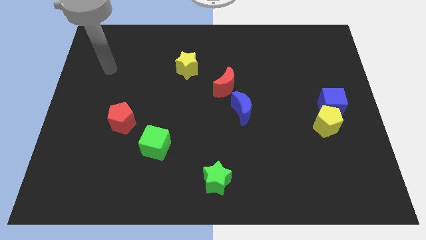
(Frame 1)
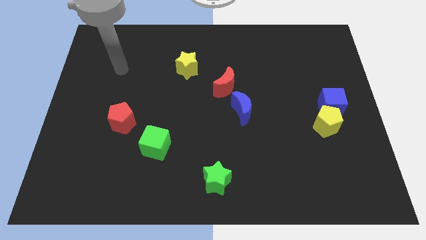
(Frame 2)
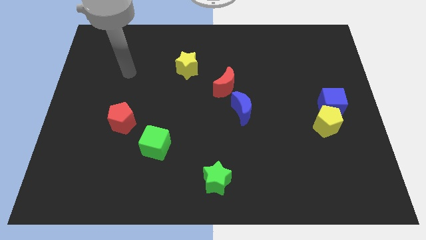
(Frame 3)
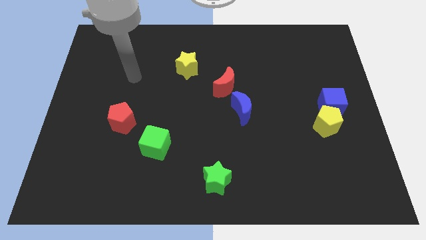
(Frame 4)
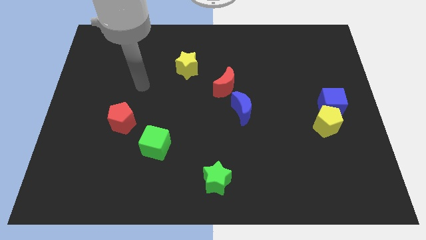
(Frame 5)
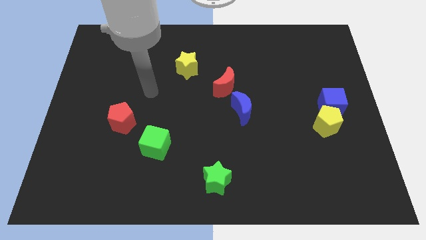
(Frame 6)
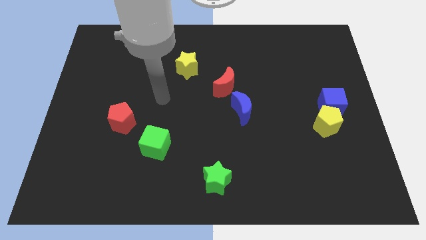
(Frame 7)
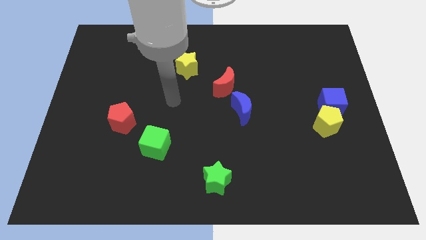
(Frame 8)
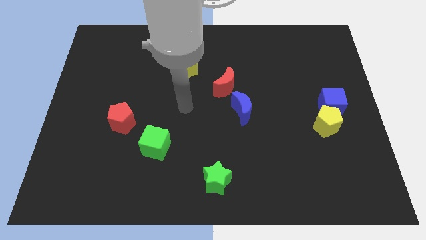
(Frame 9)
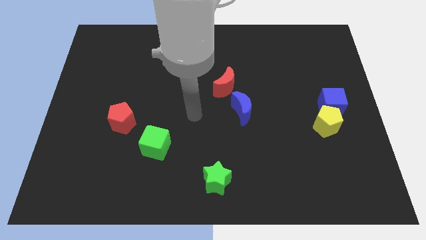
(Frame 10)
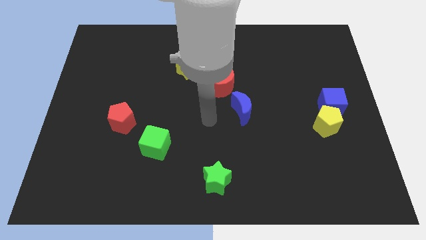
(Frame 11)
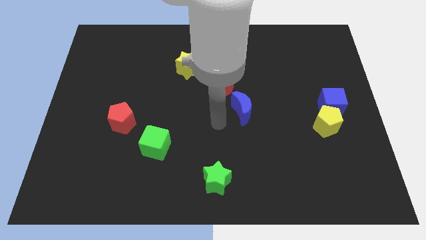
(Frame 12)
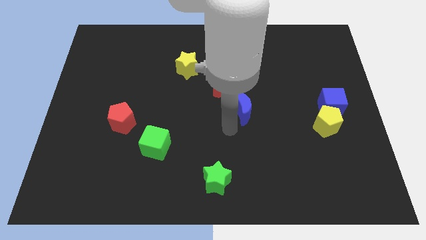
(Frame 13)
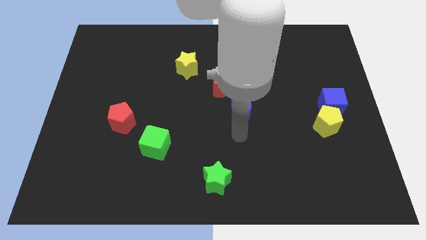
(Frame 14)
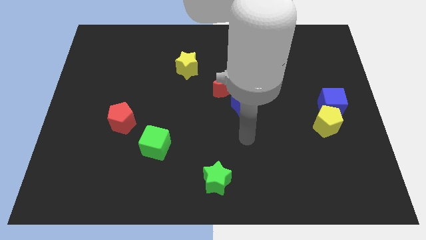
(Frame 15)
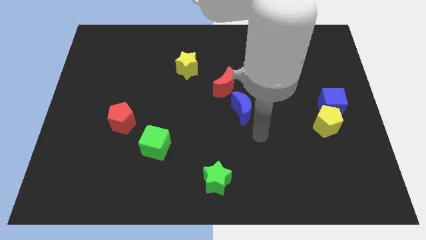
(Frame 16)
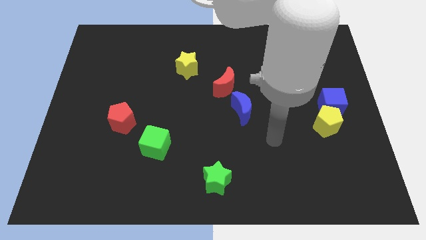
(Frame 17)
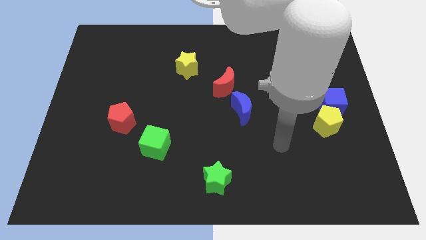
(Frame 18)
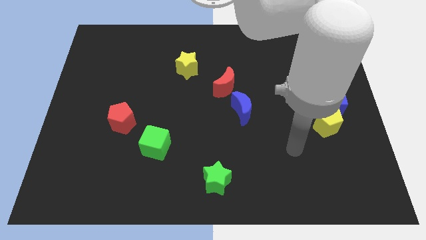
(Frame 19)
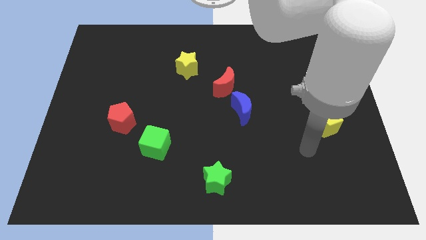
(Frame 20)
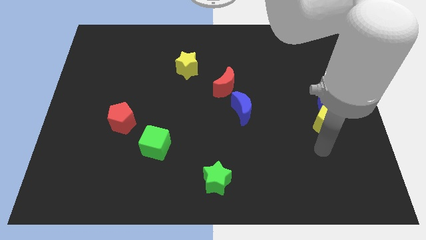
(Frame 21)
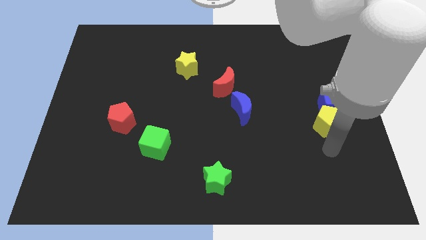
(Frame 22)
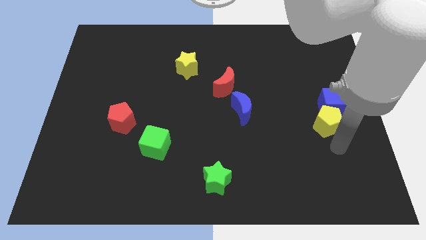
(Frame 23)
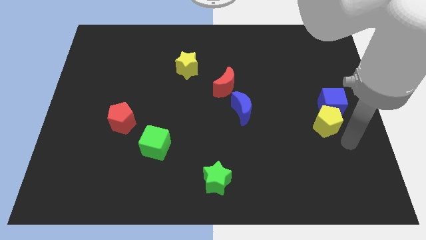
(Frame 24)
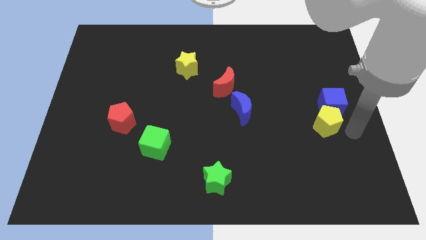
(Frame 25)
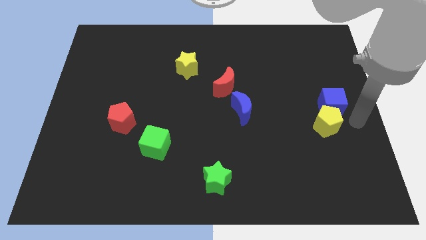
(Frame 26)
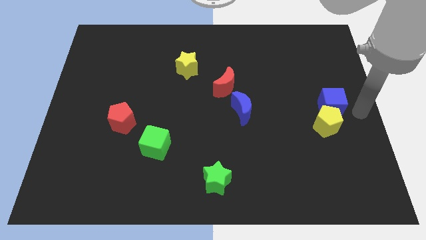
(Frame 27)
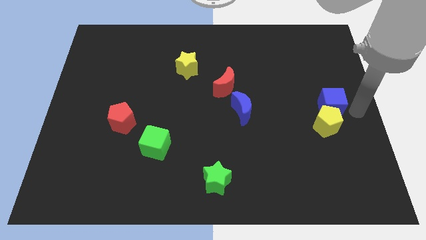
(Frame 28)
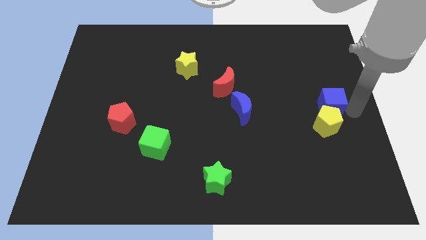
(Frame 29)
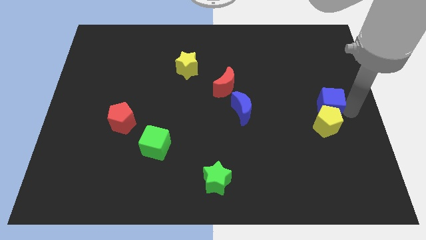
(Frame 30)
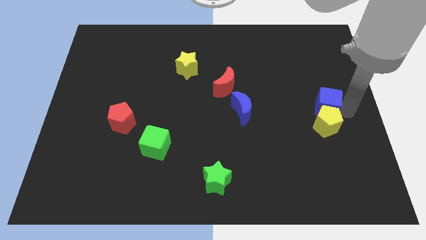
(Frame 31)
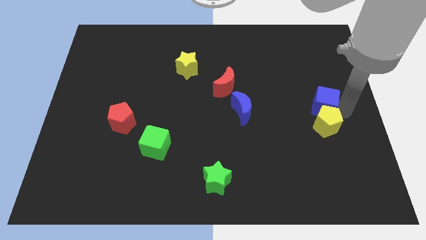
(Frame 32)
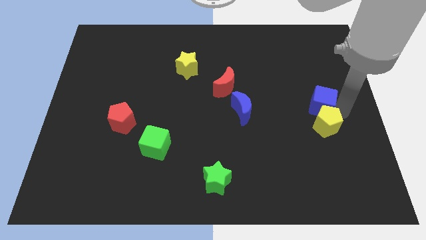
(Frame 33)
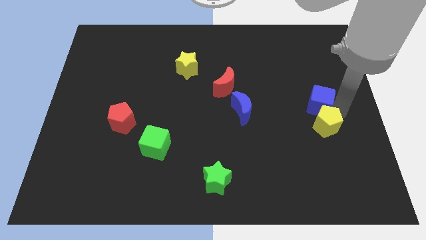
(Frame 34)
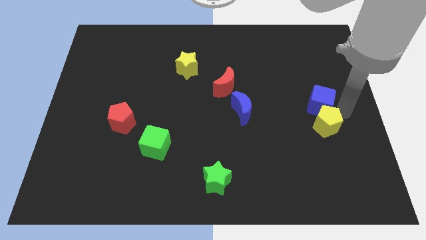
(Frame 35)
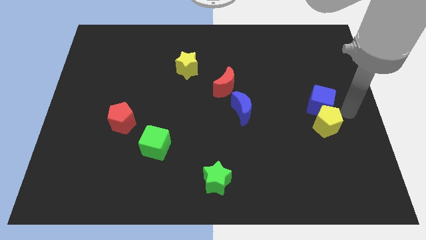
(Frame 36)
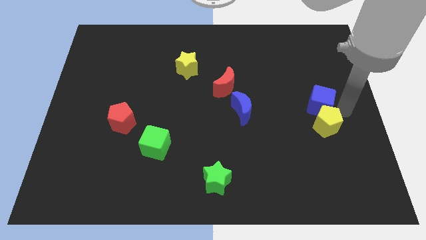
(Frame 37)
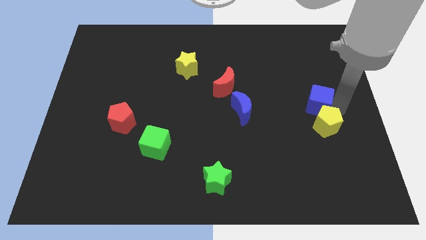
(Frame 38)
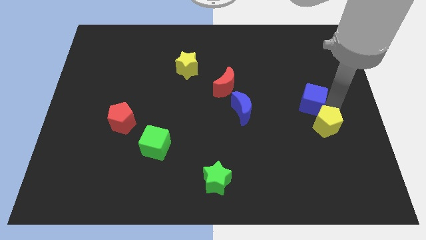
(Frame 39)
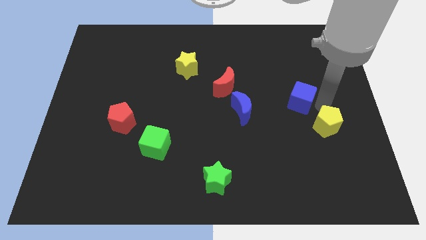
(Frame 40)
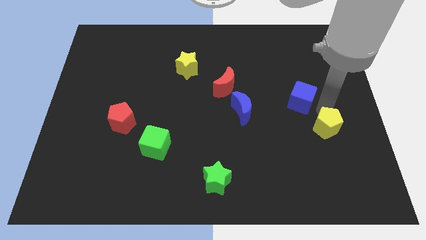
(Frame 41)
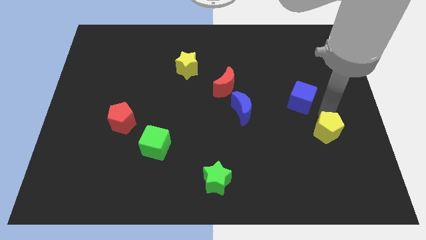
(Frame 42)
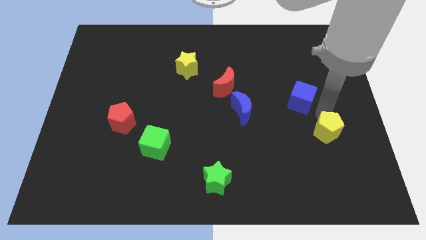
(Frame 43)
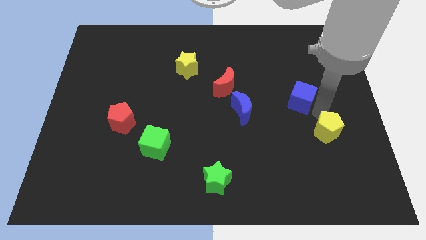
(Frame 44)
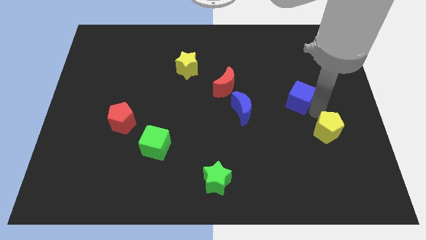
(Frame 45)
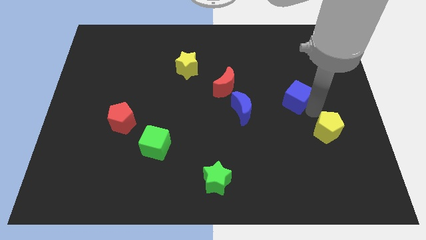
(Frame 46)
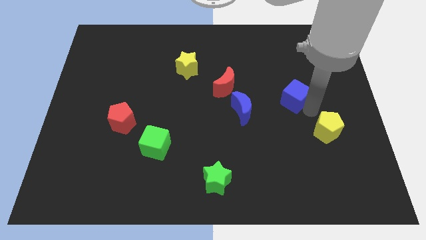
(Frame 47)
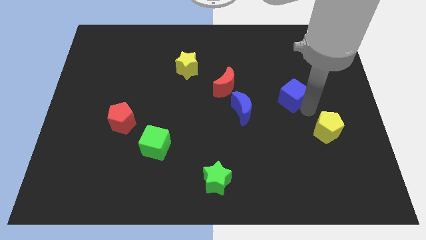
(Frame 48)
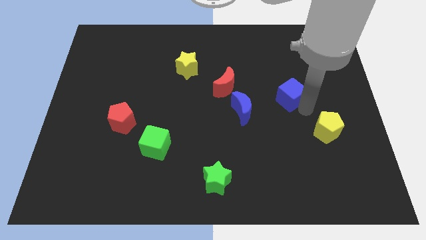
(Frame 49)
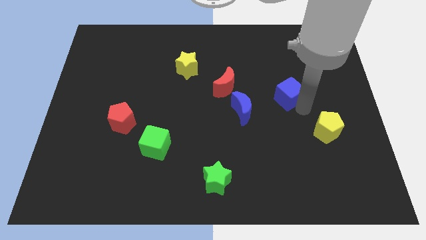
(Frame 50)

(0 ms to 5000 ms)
move the blue cube just right of the red moon

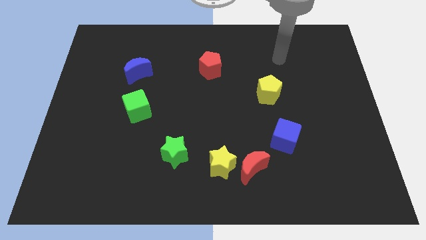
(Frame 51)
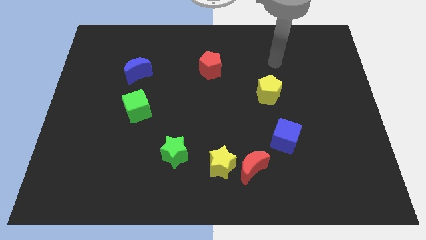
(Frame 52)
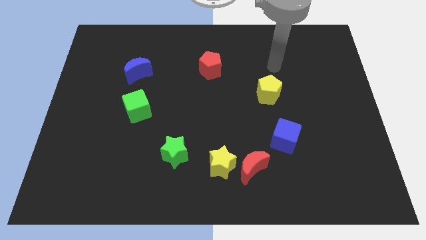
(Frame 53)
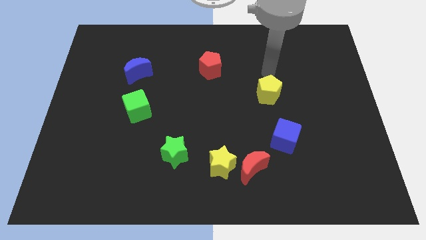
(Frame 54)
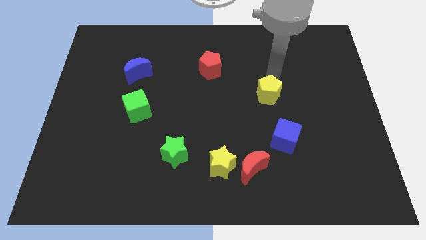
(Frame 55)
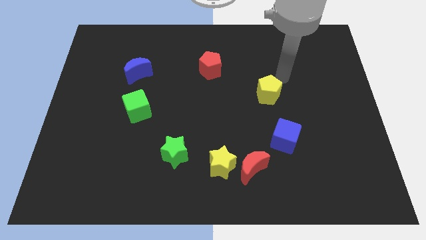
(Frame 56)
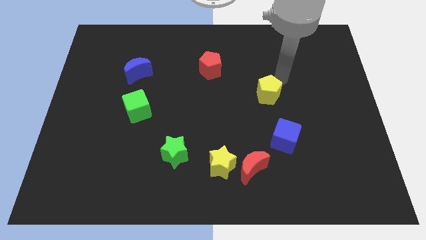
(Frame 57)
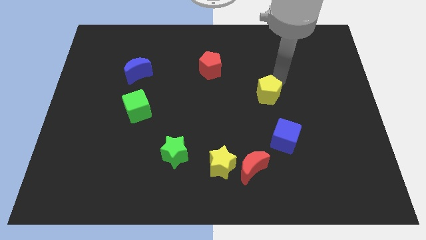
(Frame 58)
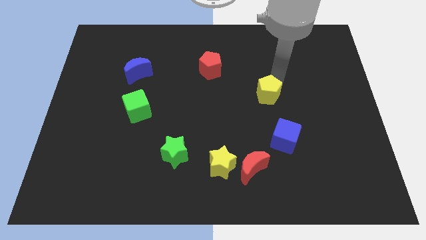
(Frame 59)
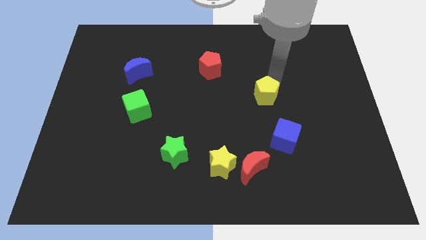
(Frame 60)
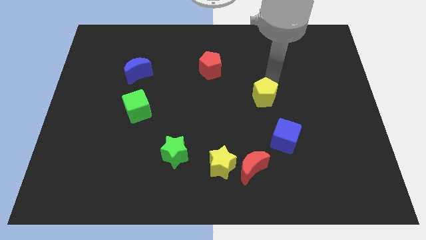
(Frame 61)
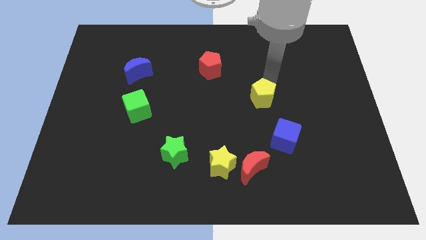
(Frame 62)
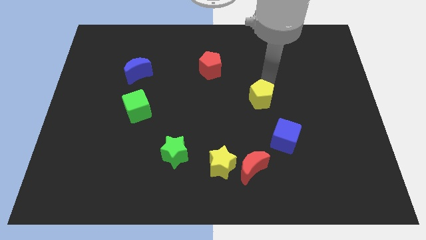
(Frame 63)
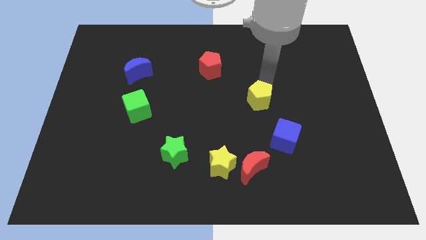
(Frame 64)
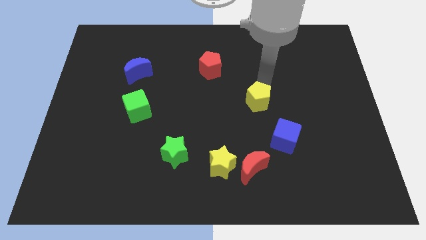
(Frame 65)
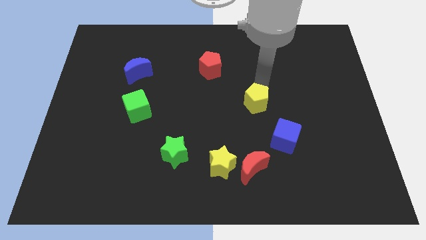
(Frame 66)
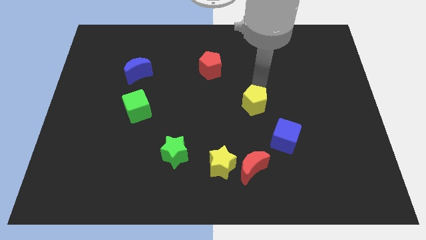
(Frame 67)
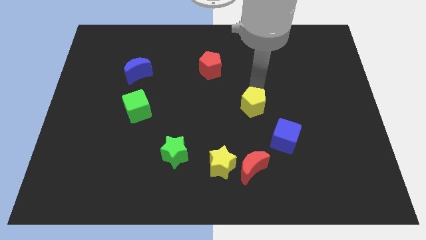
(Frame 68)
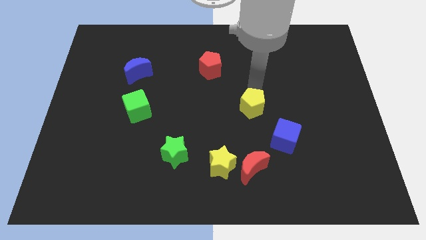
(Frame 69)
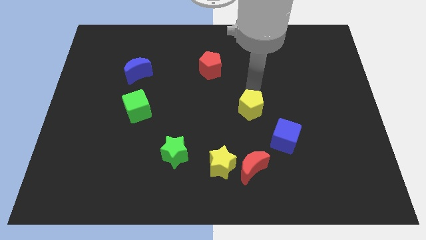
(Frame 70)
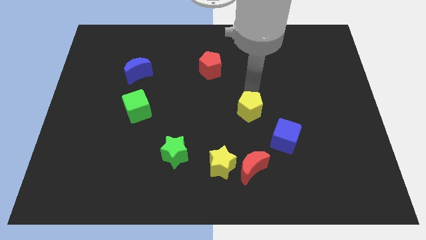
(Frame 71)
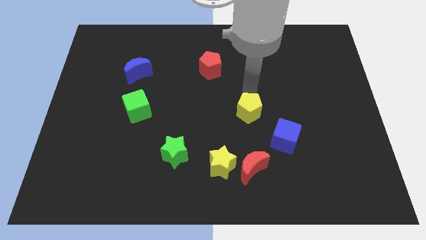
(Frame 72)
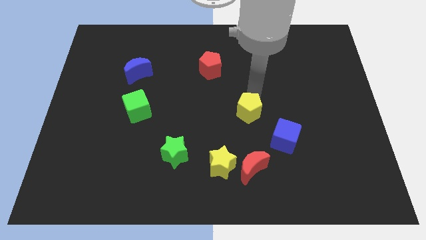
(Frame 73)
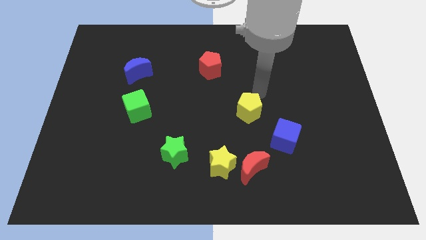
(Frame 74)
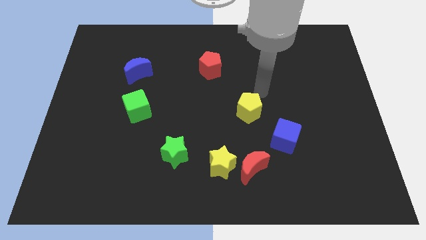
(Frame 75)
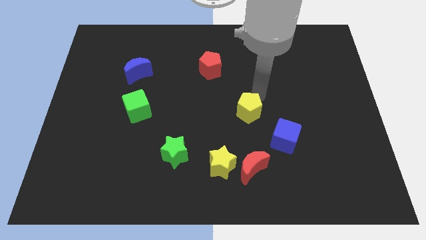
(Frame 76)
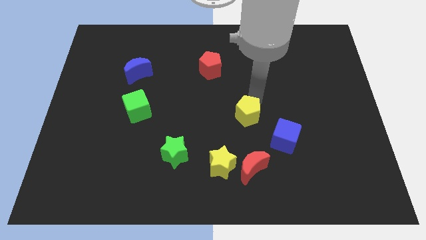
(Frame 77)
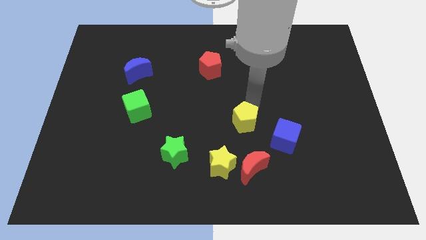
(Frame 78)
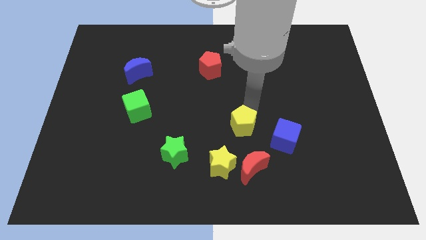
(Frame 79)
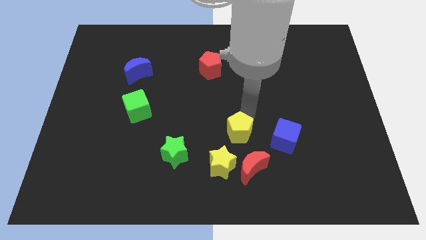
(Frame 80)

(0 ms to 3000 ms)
put the yellow pentagon to the top left side of the red moon
